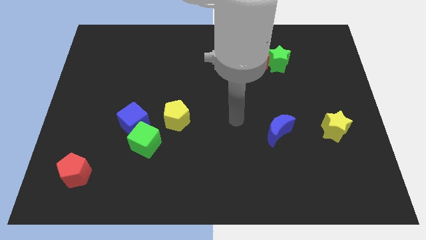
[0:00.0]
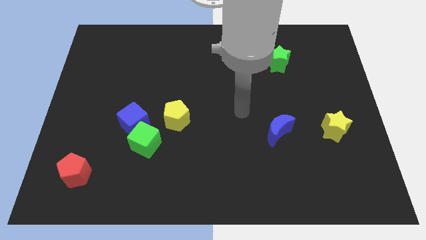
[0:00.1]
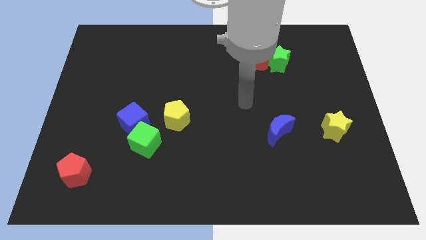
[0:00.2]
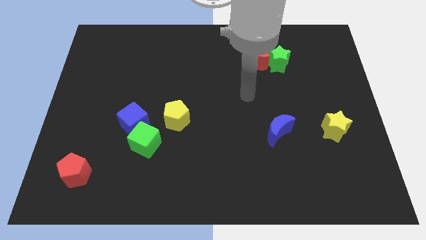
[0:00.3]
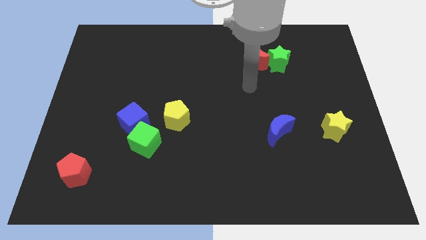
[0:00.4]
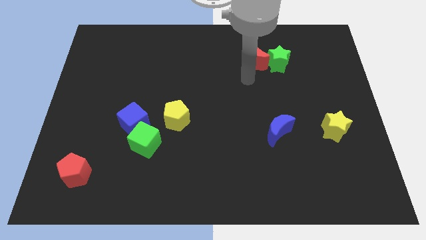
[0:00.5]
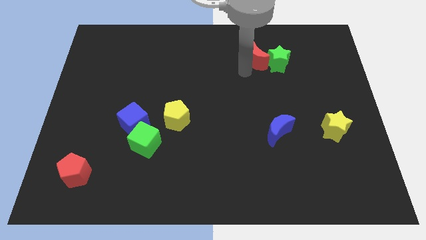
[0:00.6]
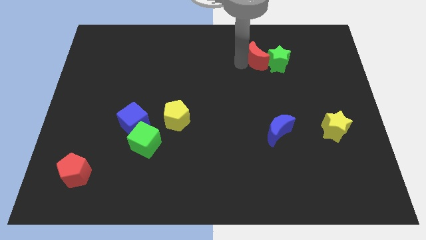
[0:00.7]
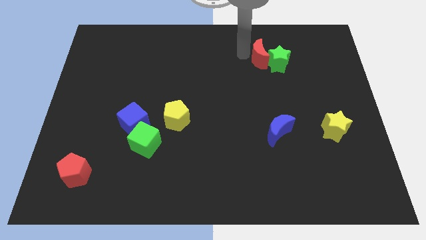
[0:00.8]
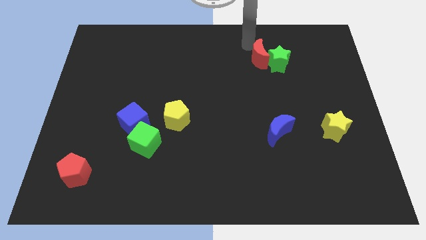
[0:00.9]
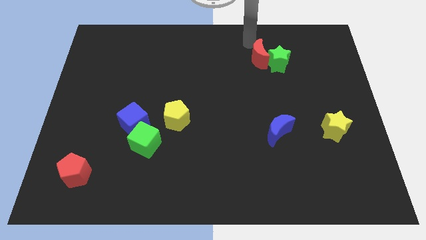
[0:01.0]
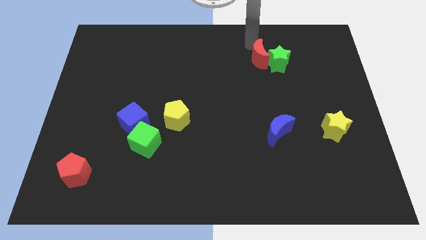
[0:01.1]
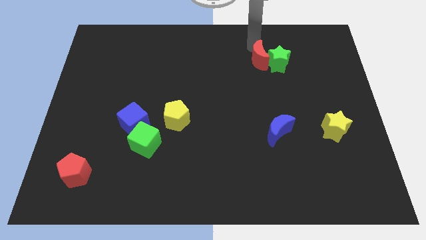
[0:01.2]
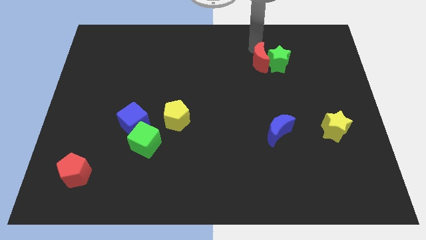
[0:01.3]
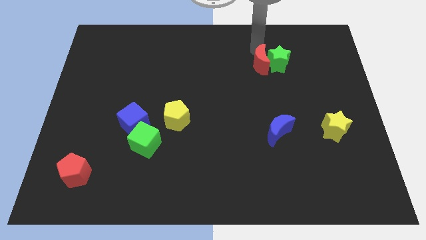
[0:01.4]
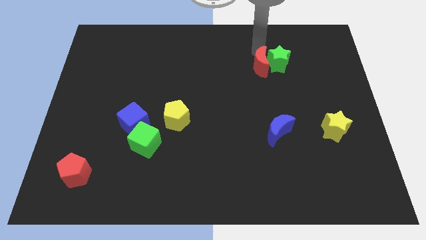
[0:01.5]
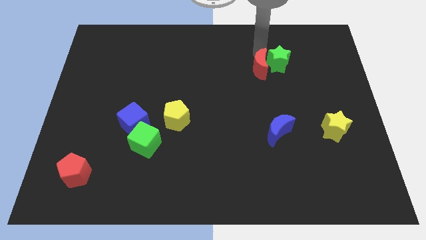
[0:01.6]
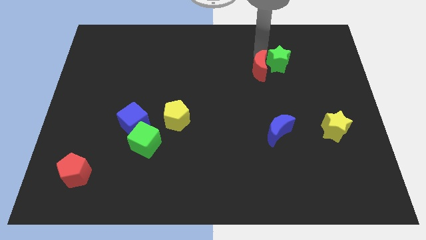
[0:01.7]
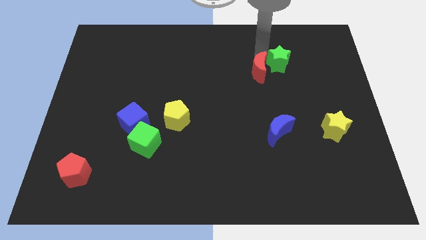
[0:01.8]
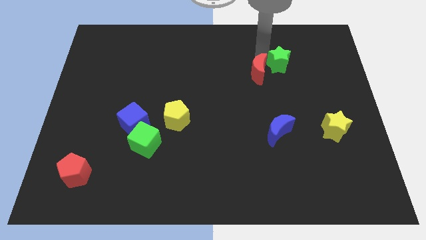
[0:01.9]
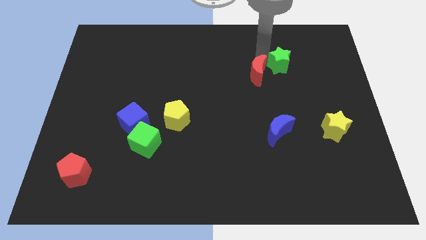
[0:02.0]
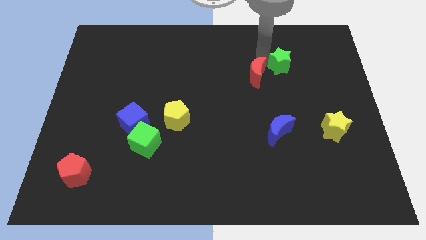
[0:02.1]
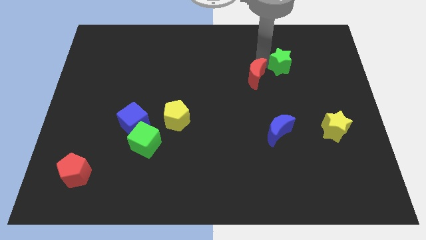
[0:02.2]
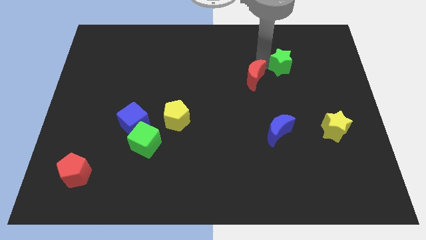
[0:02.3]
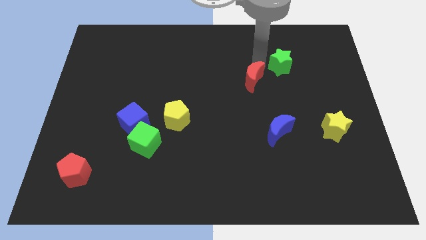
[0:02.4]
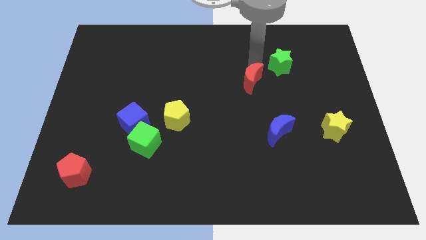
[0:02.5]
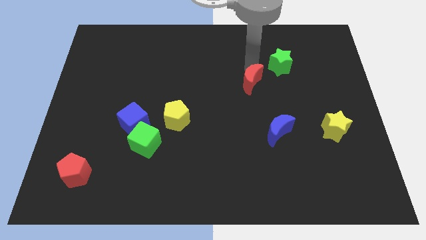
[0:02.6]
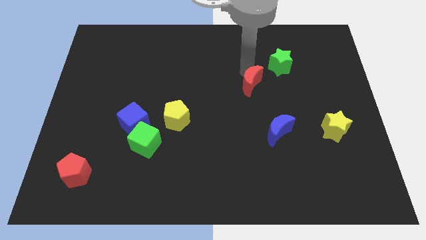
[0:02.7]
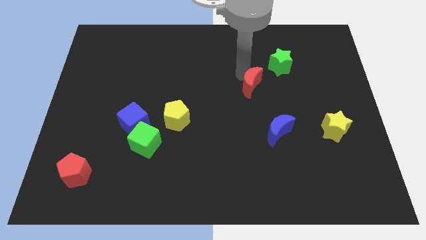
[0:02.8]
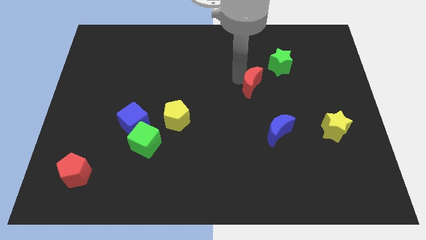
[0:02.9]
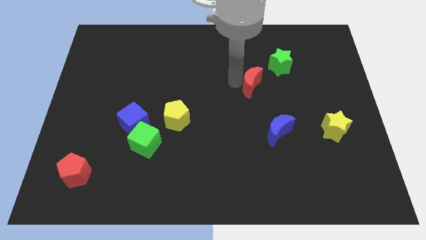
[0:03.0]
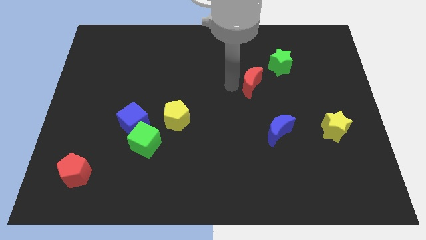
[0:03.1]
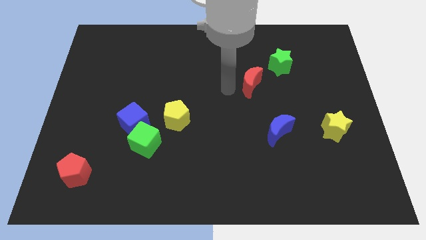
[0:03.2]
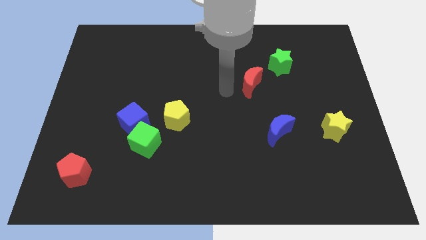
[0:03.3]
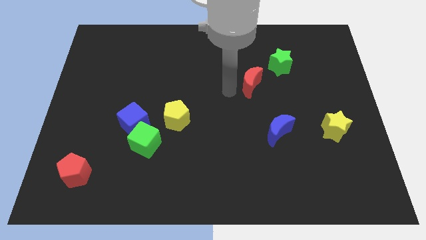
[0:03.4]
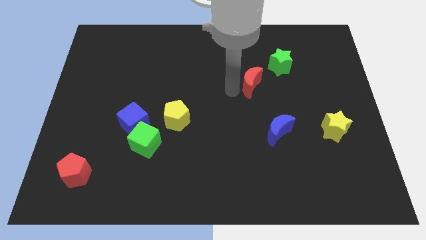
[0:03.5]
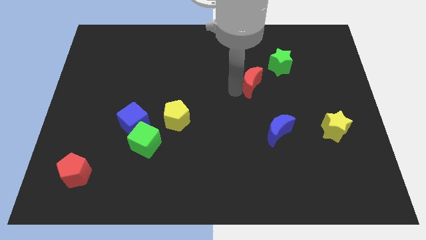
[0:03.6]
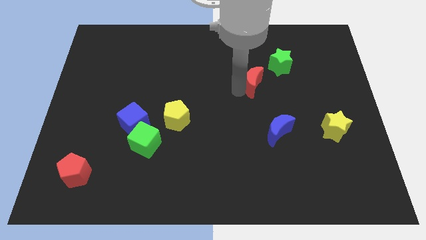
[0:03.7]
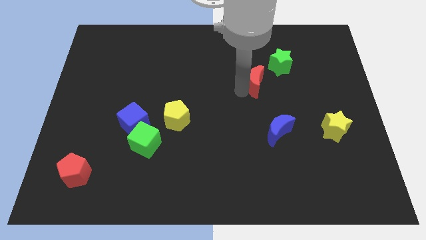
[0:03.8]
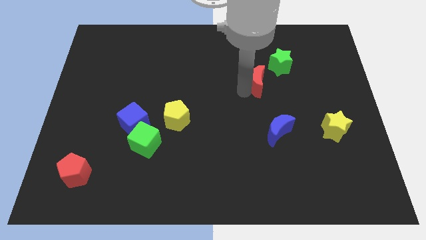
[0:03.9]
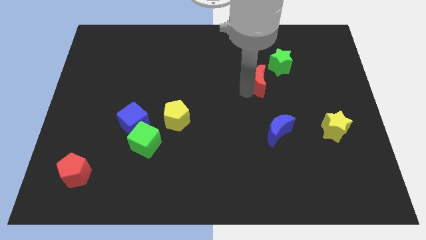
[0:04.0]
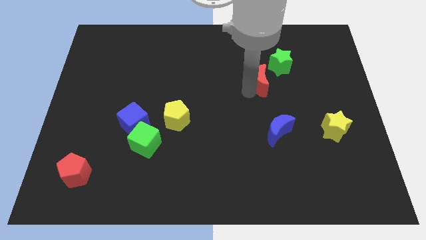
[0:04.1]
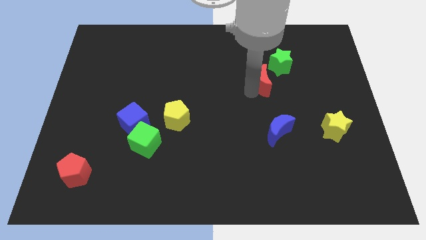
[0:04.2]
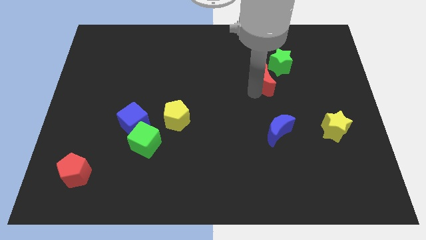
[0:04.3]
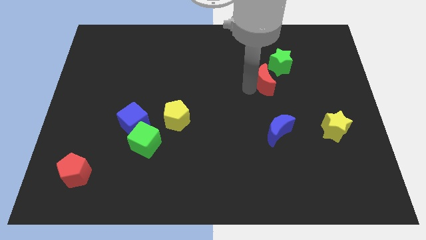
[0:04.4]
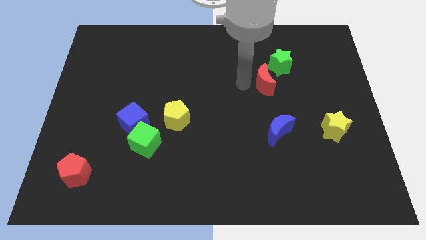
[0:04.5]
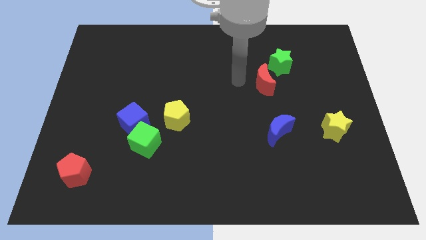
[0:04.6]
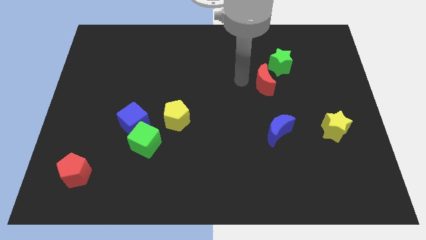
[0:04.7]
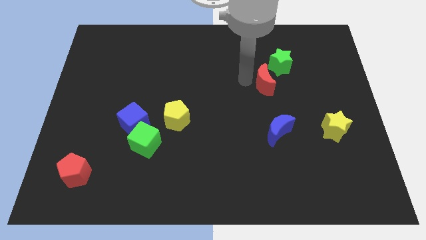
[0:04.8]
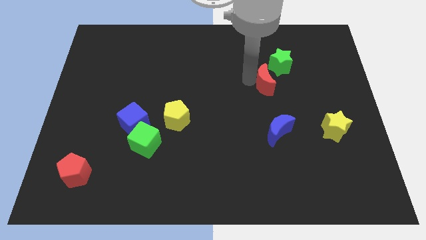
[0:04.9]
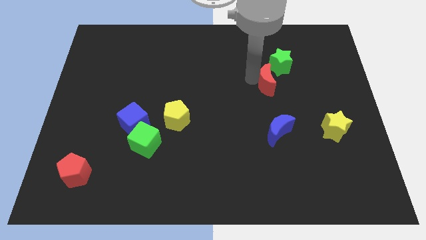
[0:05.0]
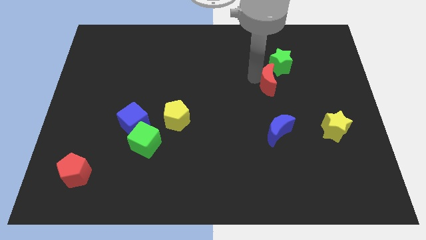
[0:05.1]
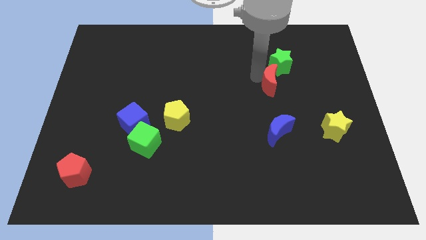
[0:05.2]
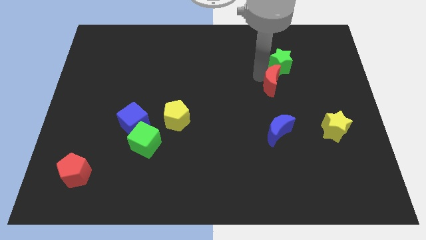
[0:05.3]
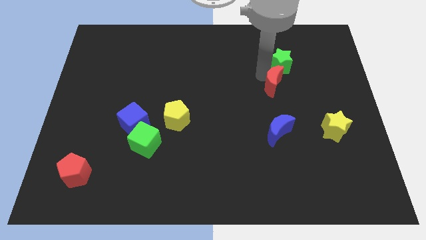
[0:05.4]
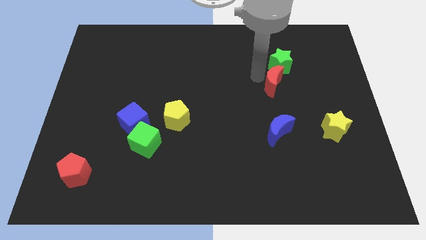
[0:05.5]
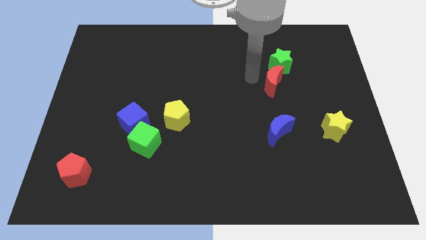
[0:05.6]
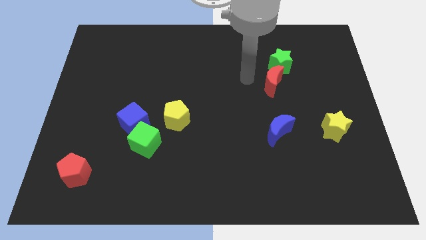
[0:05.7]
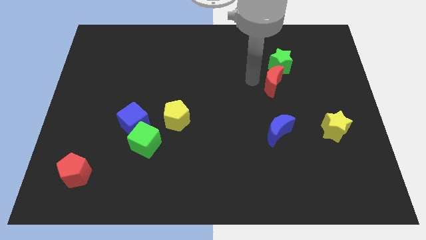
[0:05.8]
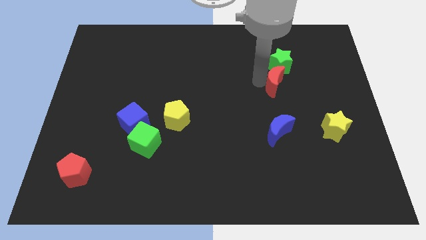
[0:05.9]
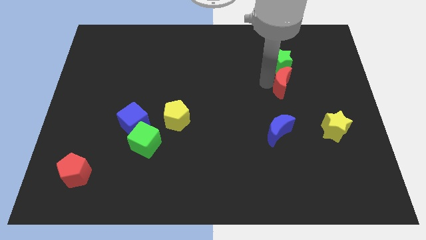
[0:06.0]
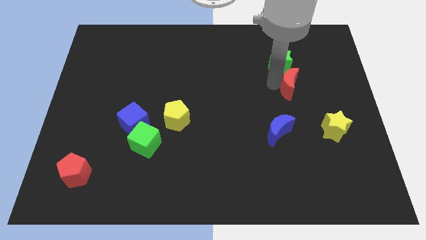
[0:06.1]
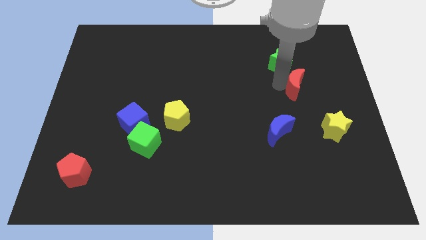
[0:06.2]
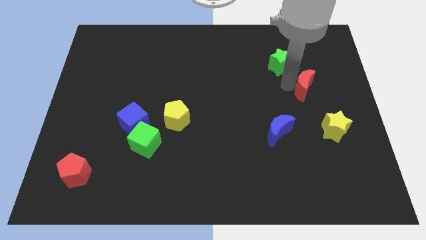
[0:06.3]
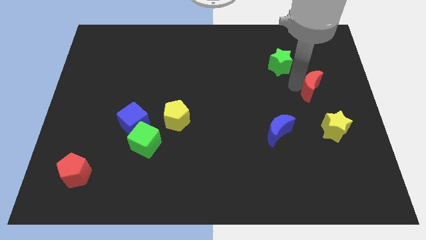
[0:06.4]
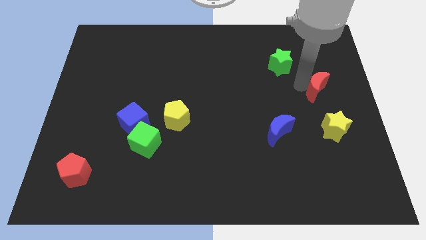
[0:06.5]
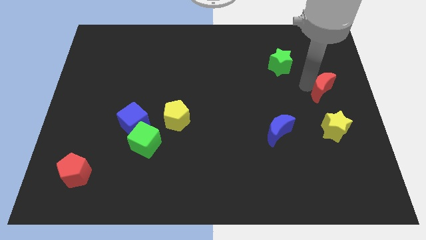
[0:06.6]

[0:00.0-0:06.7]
slide the red moon to the right side of the board
